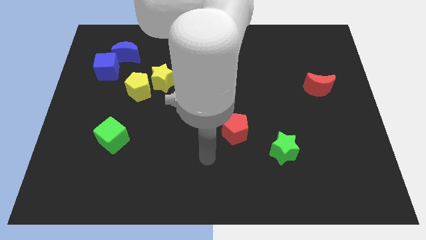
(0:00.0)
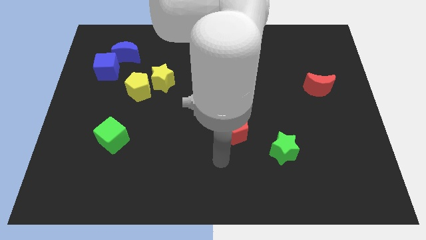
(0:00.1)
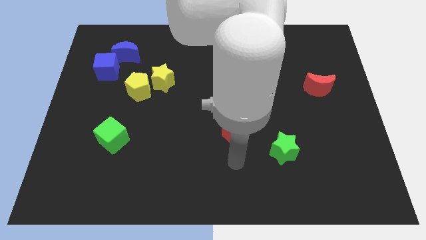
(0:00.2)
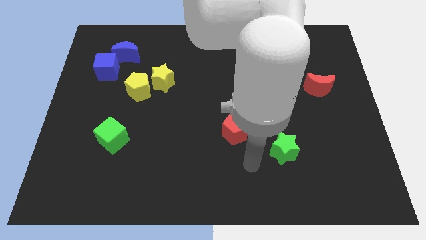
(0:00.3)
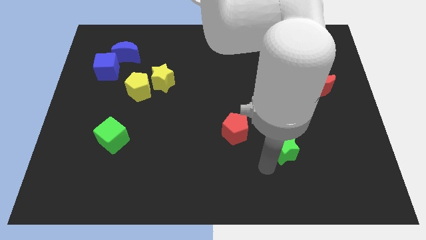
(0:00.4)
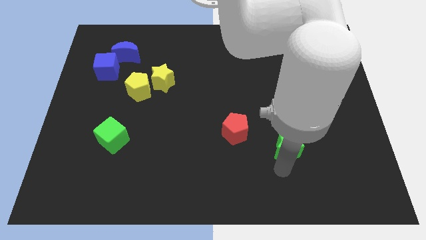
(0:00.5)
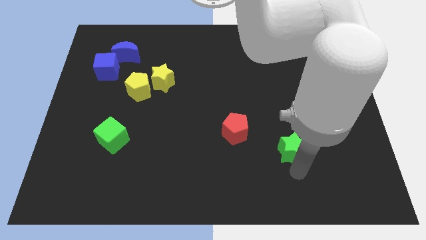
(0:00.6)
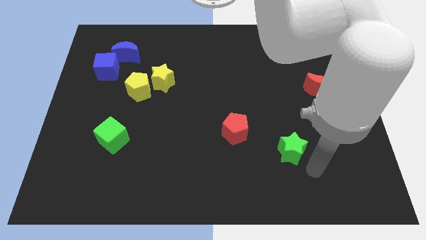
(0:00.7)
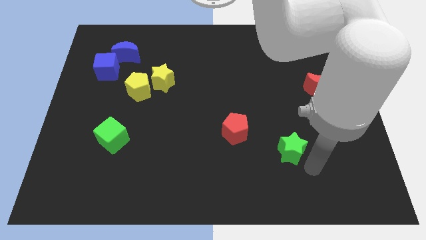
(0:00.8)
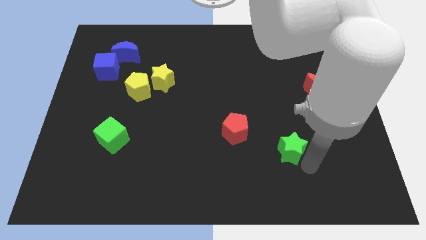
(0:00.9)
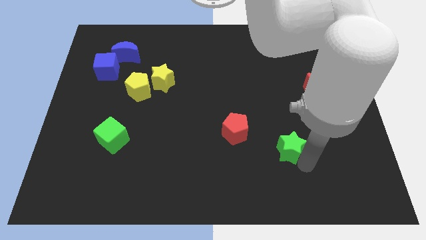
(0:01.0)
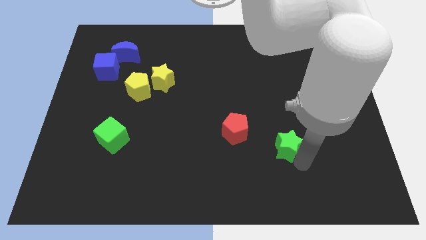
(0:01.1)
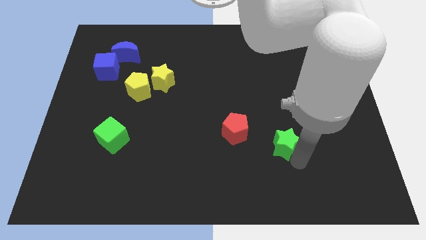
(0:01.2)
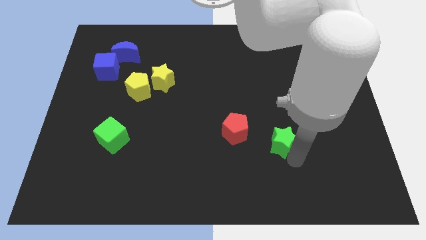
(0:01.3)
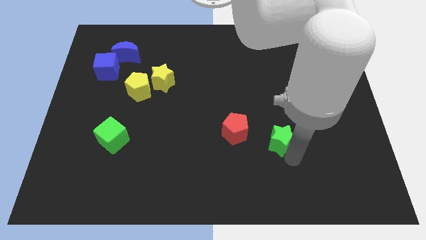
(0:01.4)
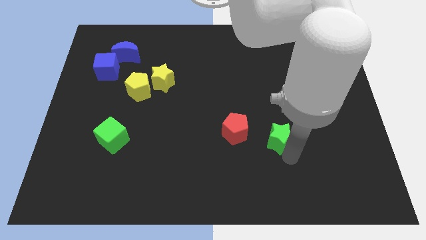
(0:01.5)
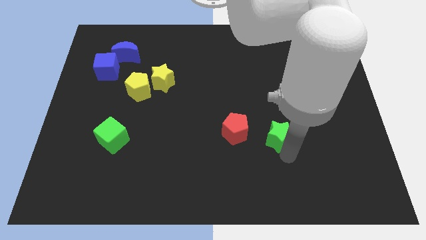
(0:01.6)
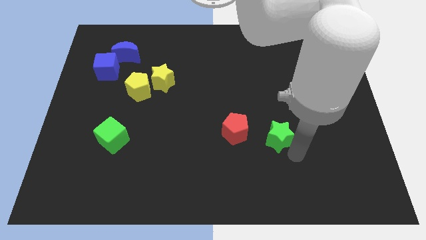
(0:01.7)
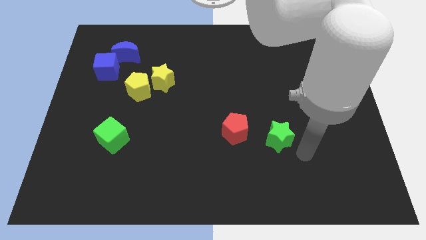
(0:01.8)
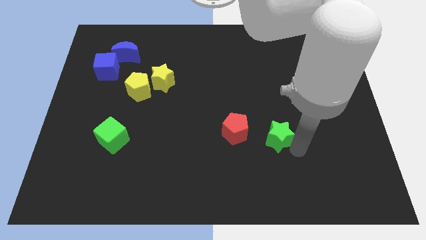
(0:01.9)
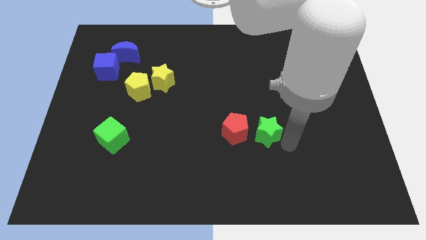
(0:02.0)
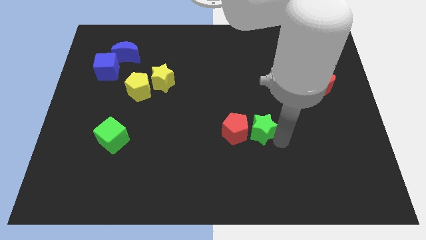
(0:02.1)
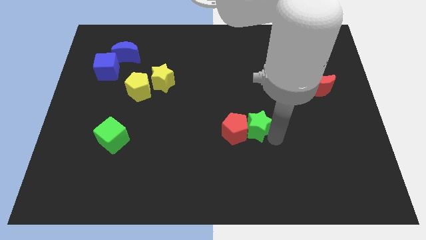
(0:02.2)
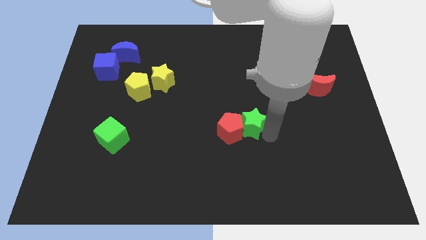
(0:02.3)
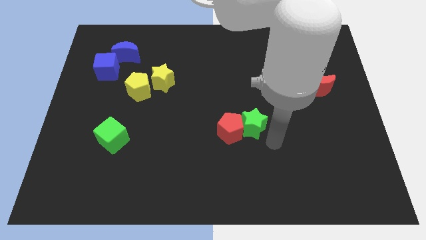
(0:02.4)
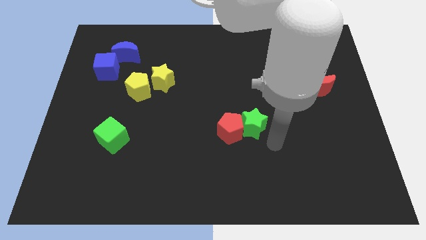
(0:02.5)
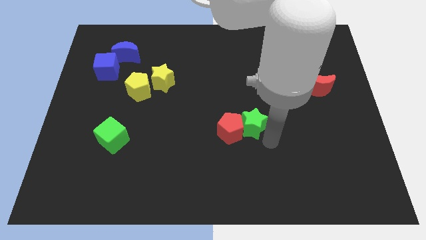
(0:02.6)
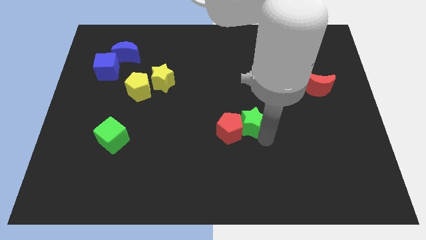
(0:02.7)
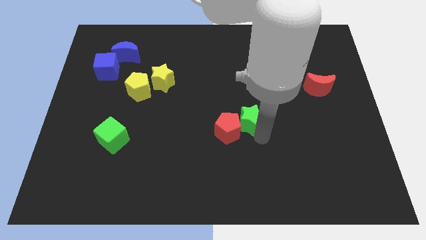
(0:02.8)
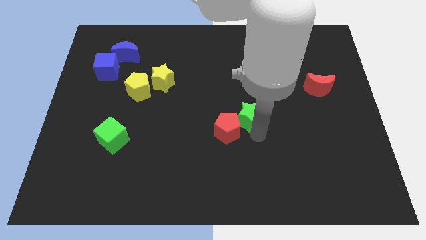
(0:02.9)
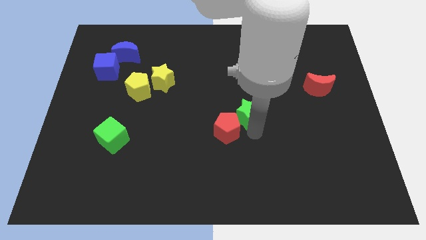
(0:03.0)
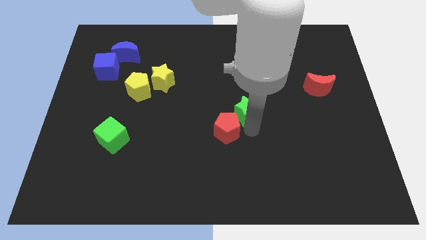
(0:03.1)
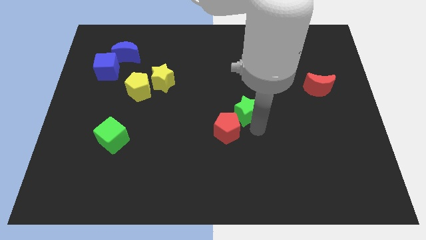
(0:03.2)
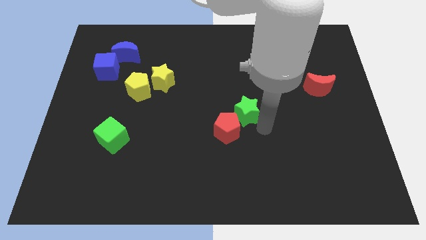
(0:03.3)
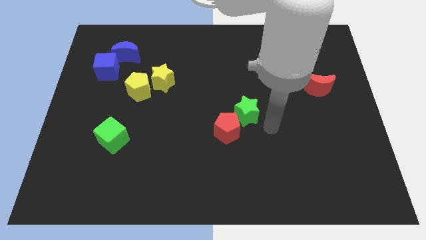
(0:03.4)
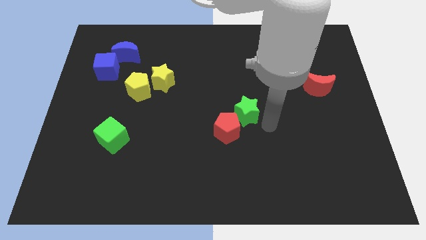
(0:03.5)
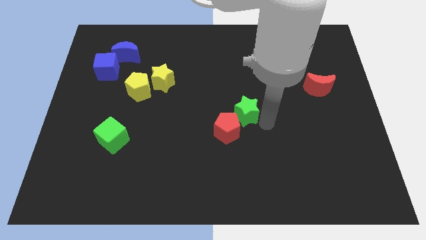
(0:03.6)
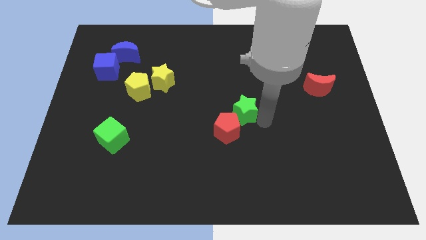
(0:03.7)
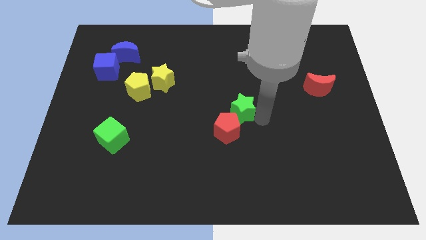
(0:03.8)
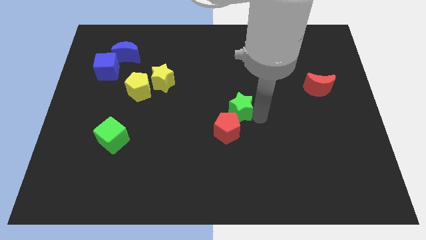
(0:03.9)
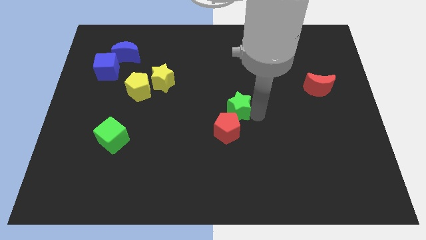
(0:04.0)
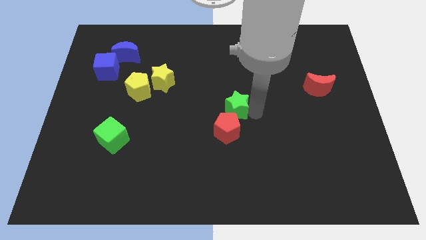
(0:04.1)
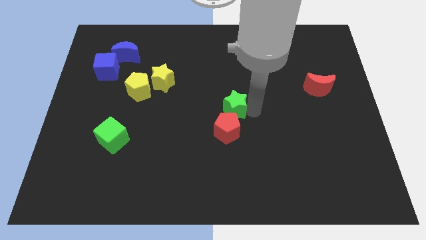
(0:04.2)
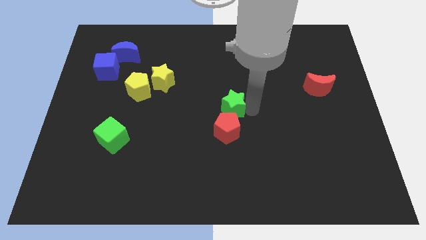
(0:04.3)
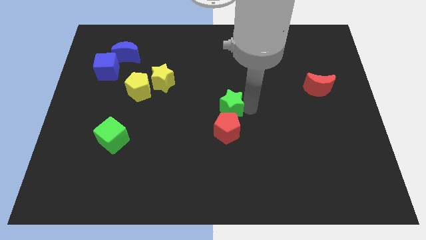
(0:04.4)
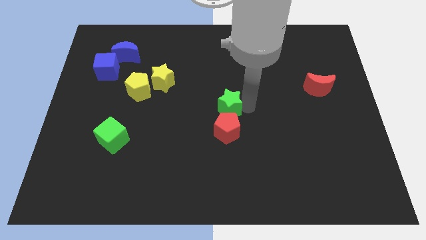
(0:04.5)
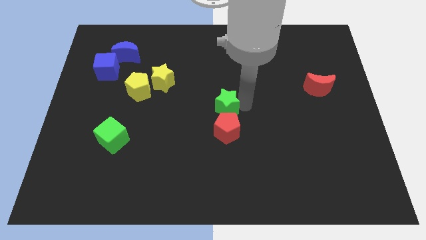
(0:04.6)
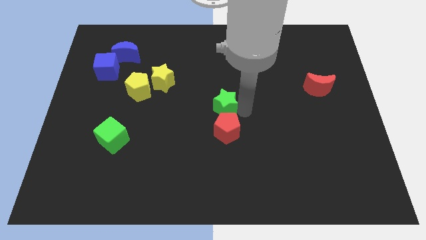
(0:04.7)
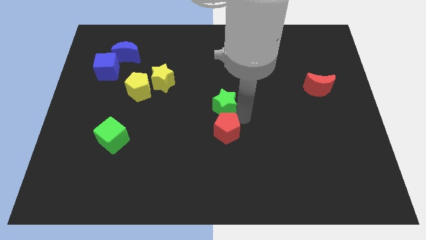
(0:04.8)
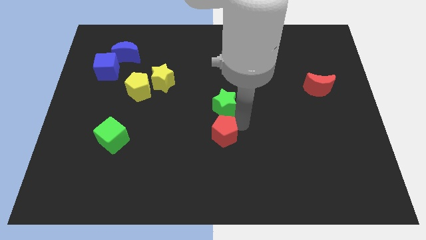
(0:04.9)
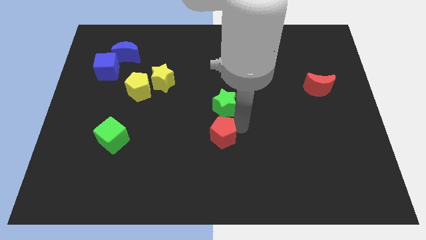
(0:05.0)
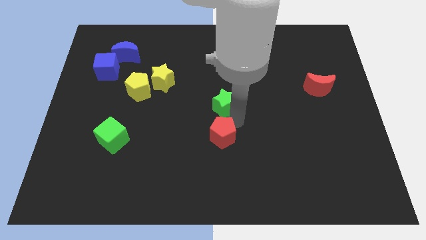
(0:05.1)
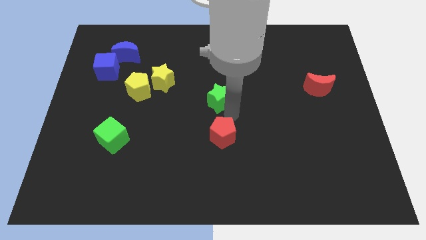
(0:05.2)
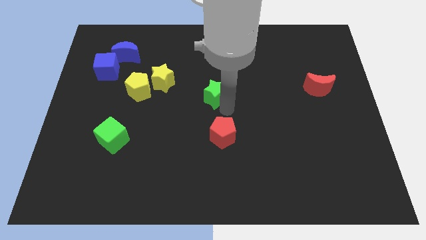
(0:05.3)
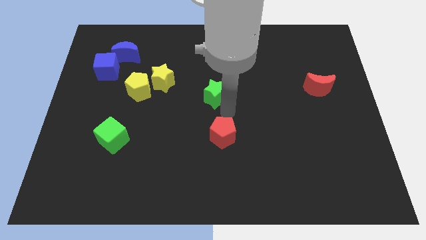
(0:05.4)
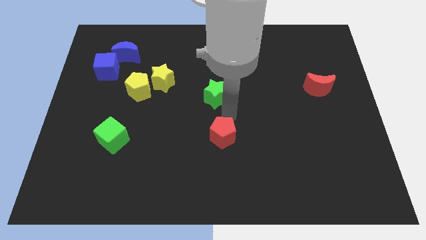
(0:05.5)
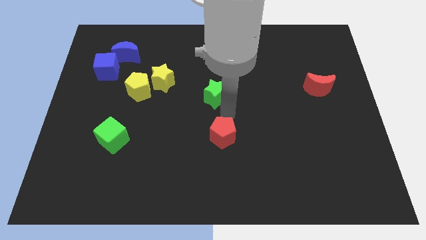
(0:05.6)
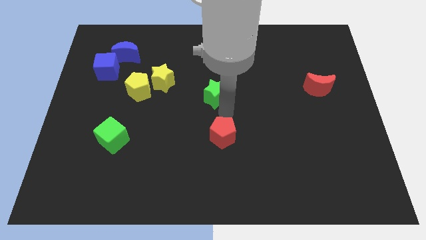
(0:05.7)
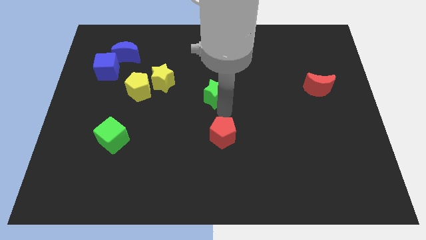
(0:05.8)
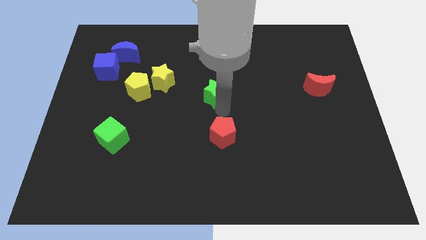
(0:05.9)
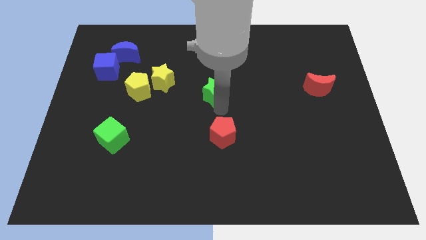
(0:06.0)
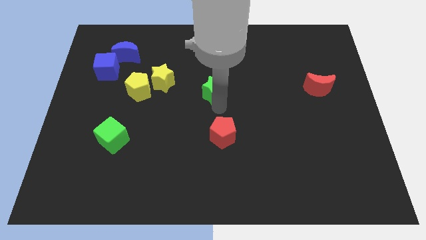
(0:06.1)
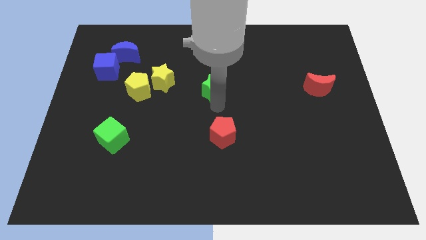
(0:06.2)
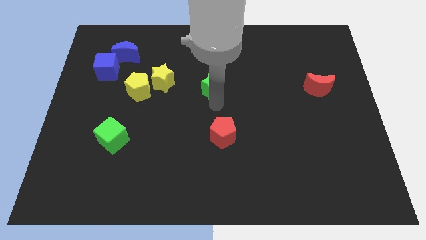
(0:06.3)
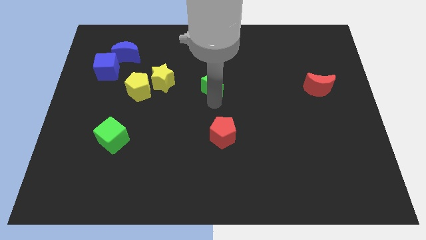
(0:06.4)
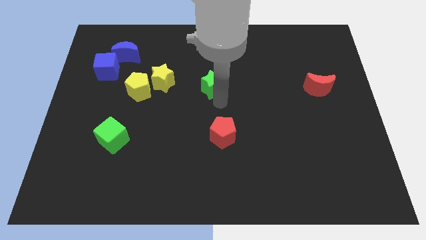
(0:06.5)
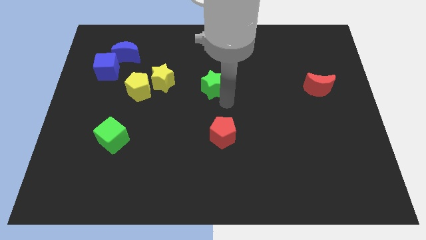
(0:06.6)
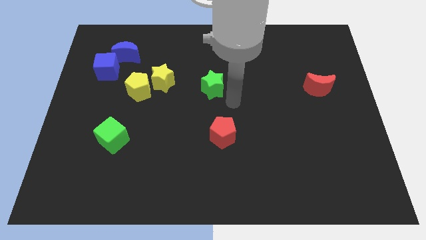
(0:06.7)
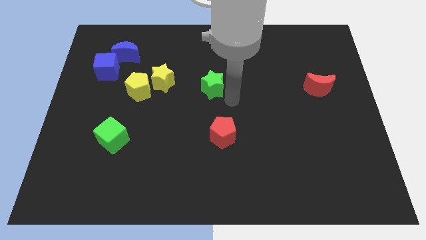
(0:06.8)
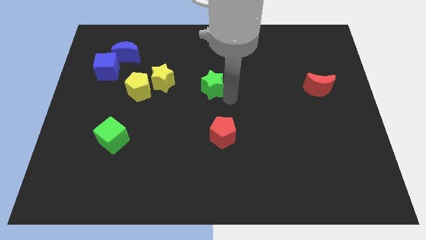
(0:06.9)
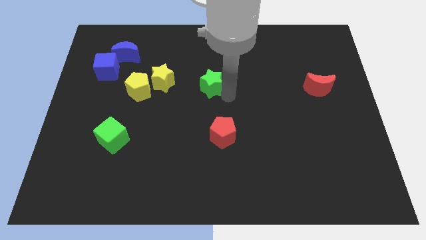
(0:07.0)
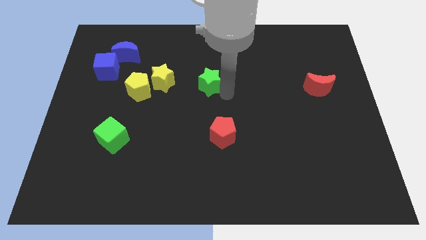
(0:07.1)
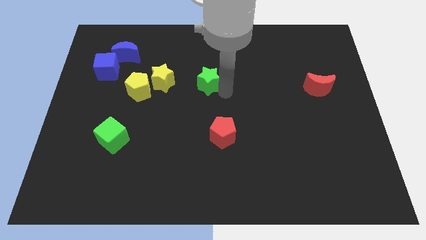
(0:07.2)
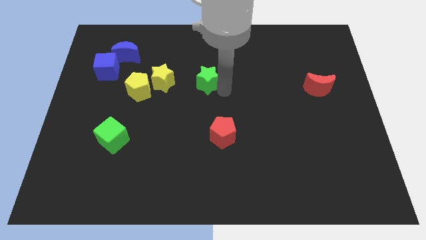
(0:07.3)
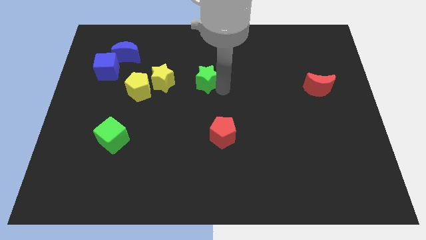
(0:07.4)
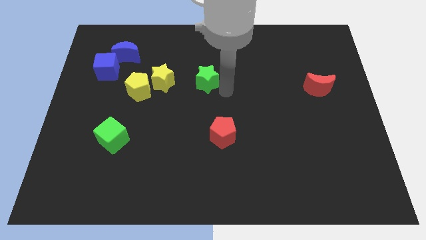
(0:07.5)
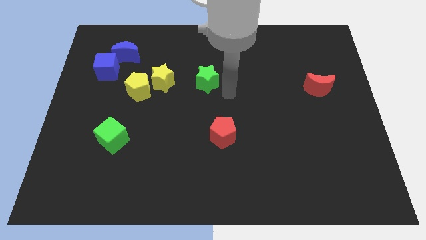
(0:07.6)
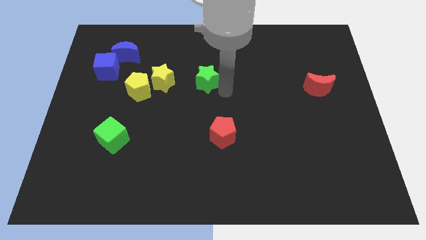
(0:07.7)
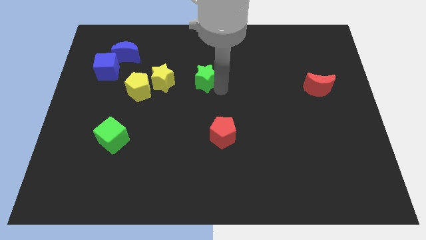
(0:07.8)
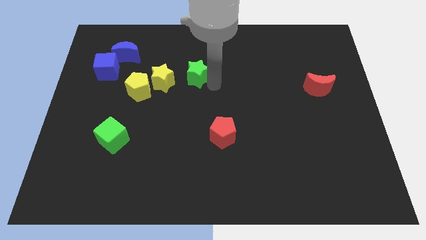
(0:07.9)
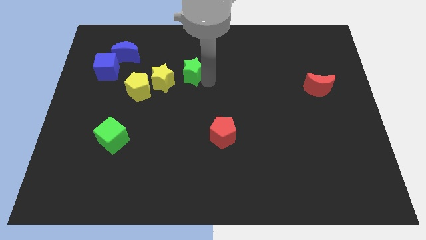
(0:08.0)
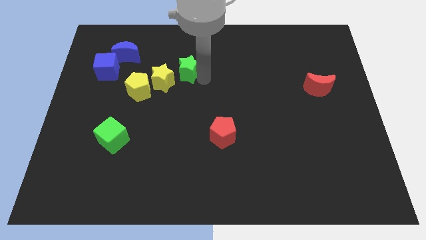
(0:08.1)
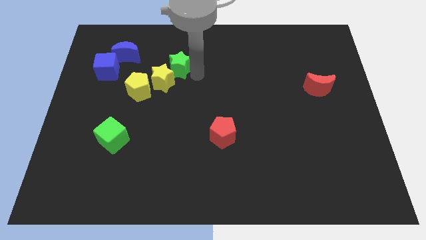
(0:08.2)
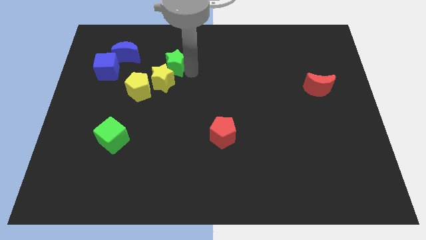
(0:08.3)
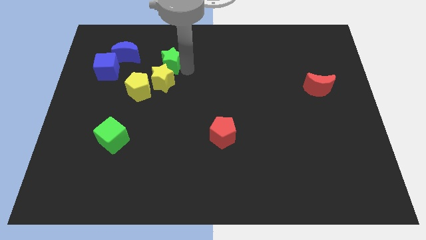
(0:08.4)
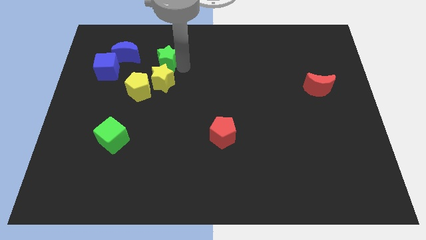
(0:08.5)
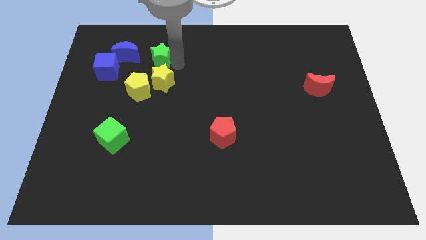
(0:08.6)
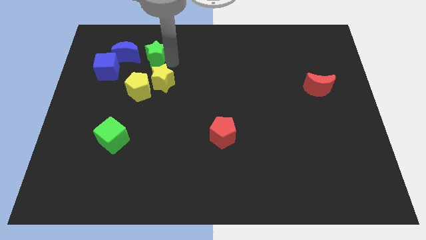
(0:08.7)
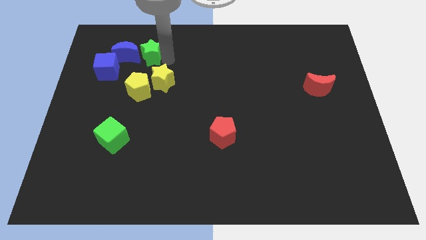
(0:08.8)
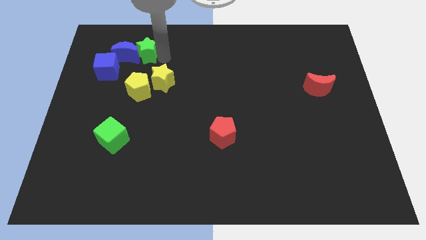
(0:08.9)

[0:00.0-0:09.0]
put the green star next to the blue moon
